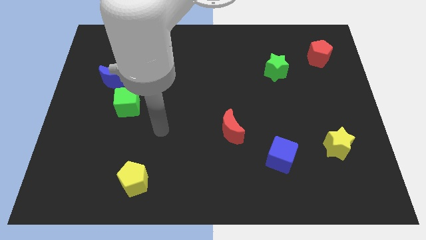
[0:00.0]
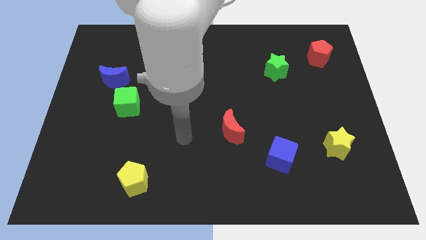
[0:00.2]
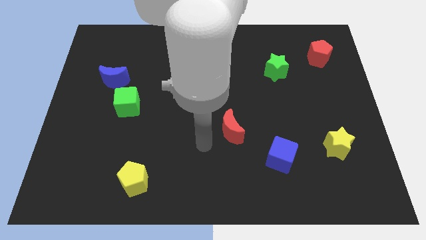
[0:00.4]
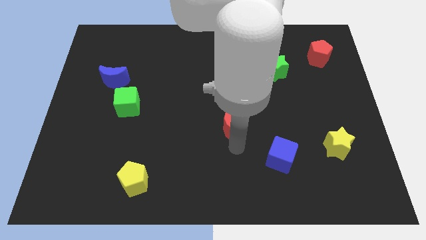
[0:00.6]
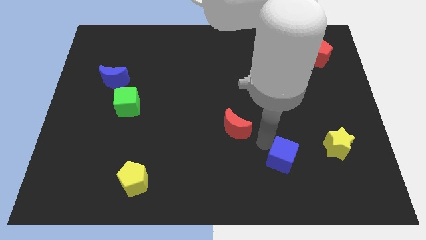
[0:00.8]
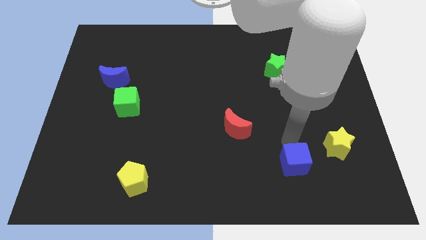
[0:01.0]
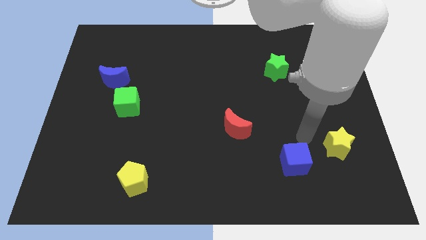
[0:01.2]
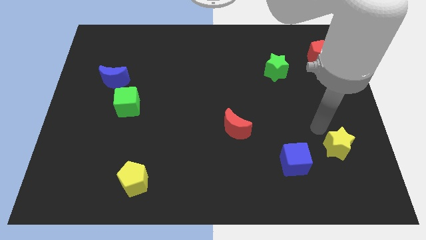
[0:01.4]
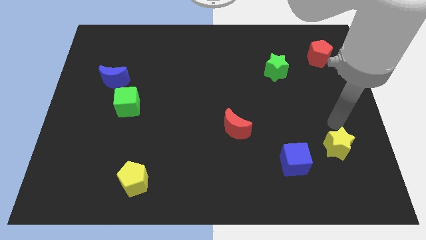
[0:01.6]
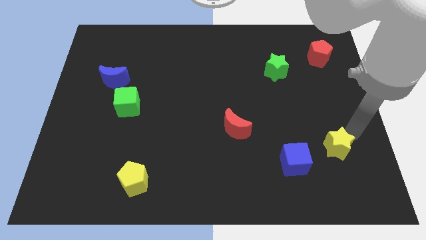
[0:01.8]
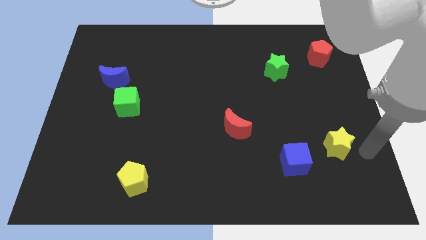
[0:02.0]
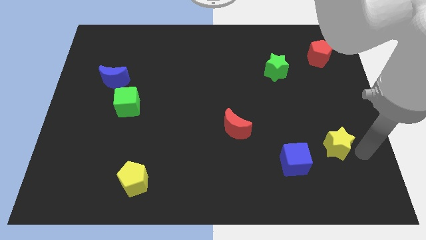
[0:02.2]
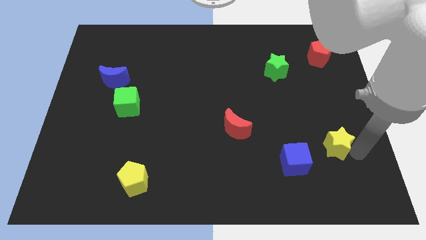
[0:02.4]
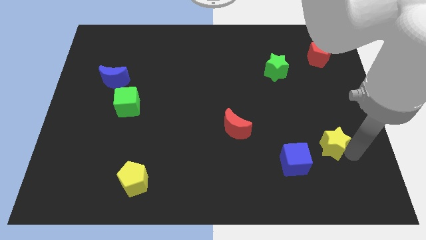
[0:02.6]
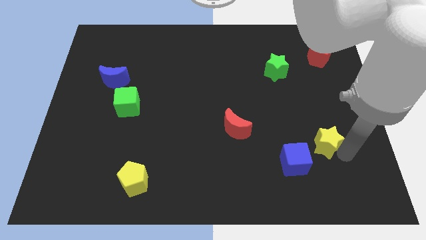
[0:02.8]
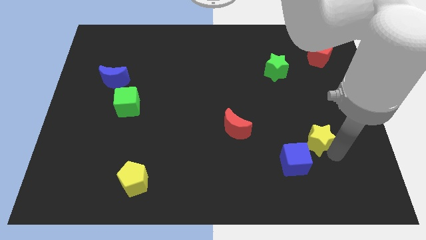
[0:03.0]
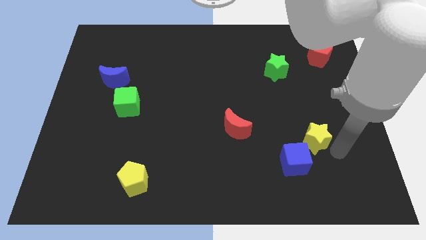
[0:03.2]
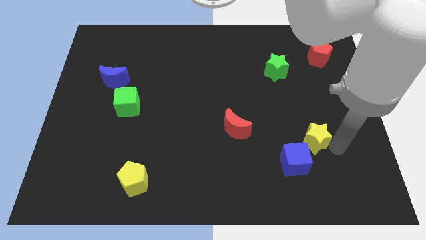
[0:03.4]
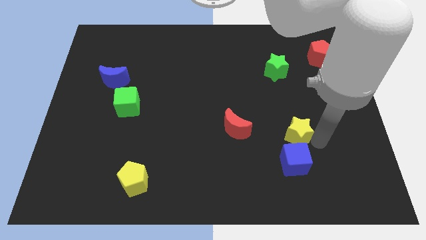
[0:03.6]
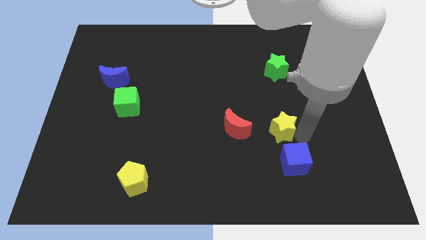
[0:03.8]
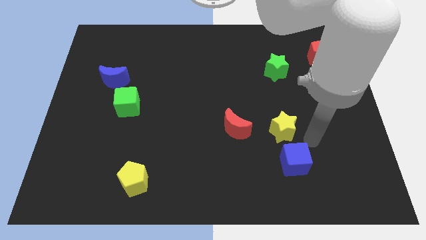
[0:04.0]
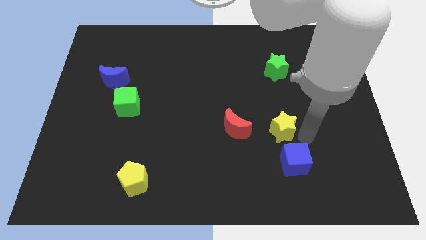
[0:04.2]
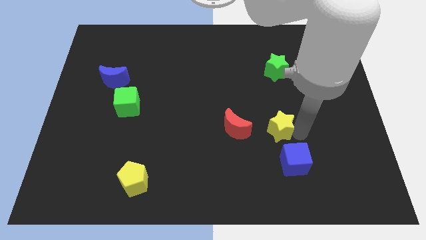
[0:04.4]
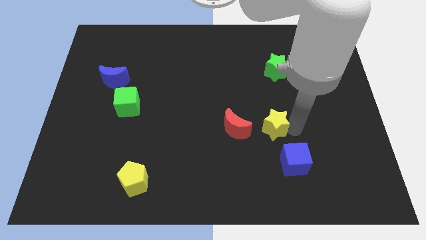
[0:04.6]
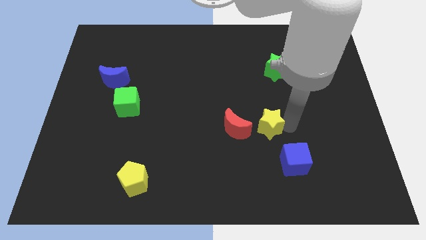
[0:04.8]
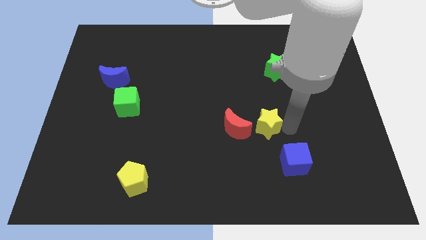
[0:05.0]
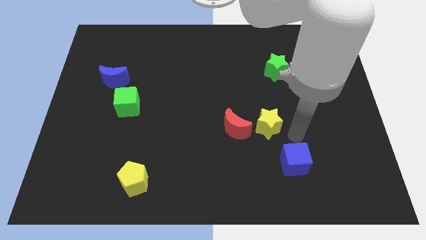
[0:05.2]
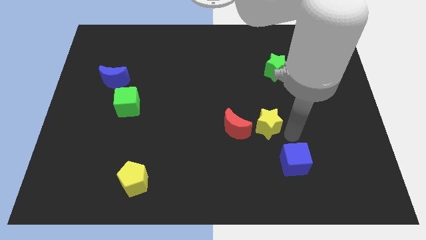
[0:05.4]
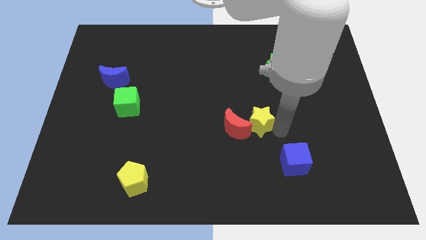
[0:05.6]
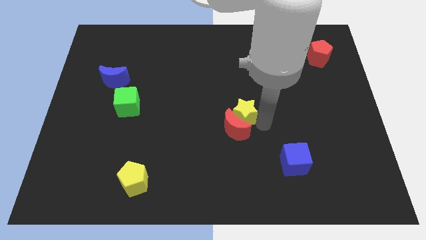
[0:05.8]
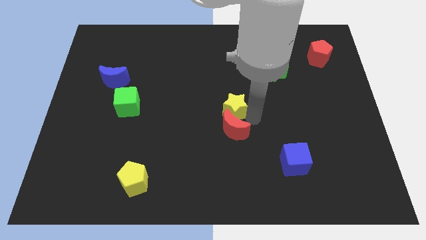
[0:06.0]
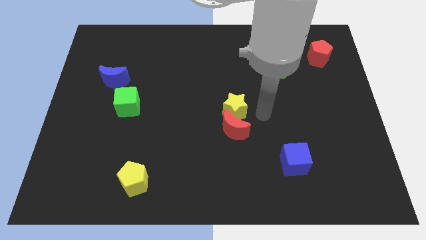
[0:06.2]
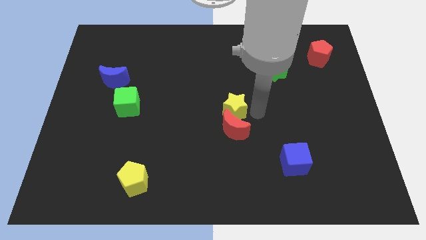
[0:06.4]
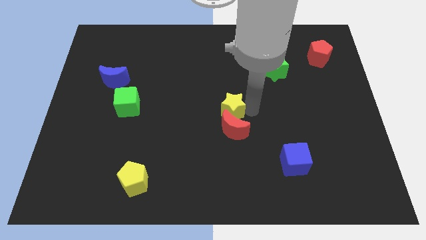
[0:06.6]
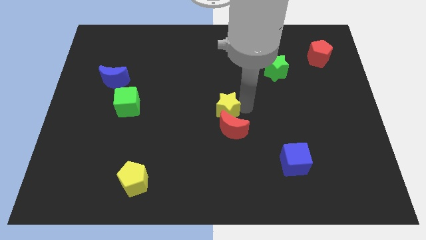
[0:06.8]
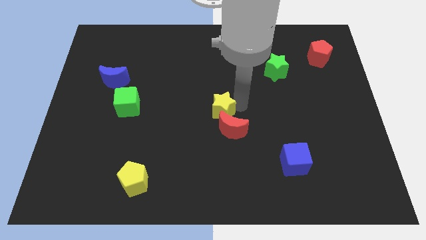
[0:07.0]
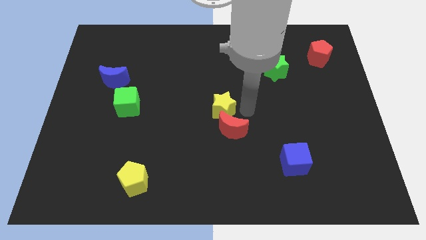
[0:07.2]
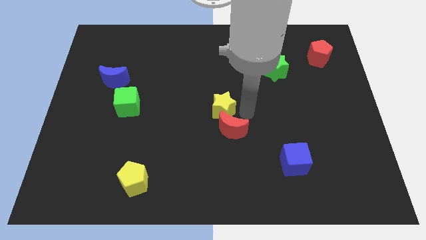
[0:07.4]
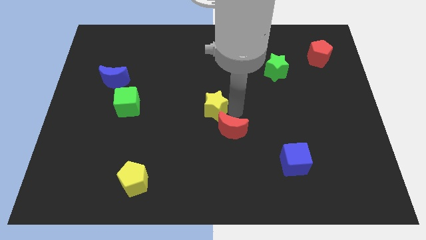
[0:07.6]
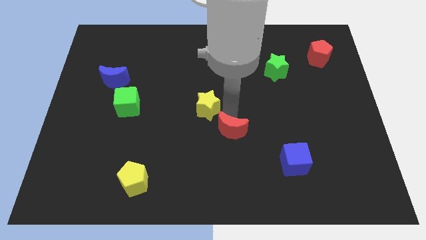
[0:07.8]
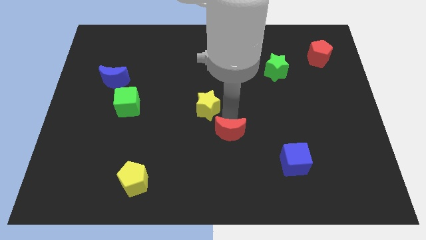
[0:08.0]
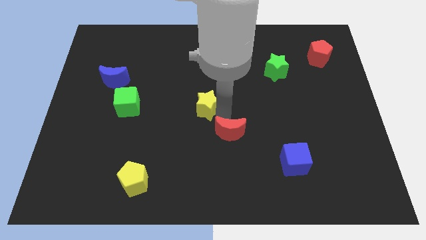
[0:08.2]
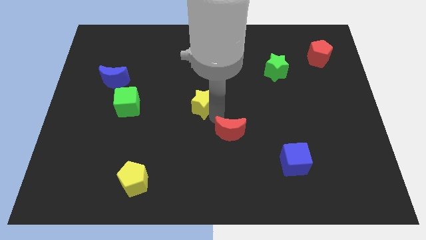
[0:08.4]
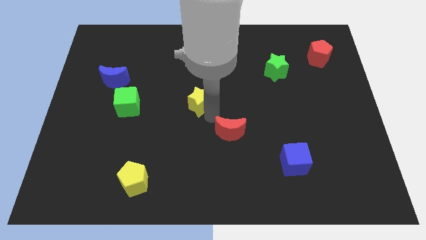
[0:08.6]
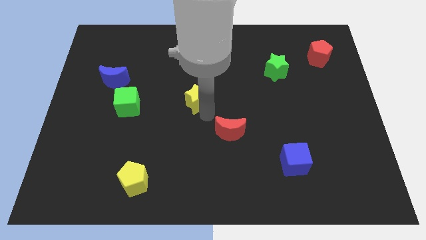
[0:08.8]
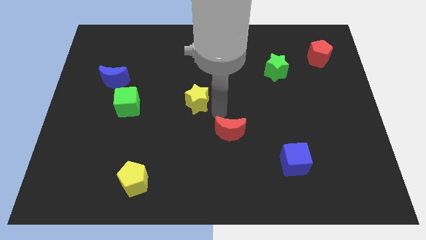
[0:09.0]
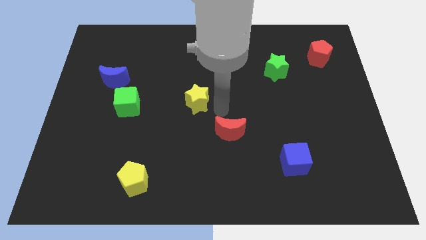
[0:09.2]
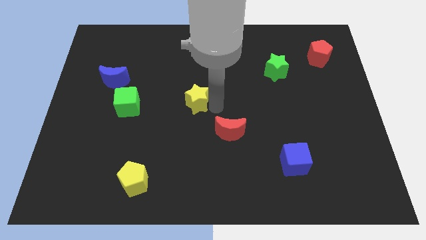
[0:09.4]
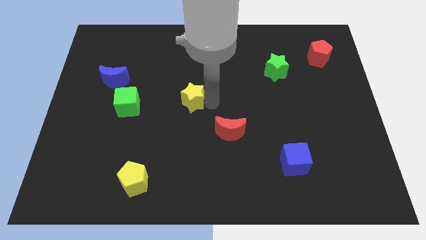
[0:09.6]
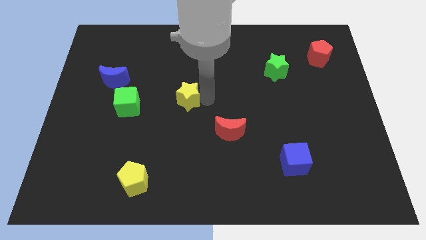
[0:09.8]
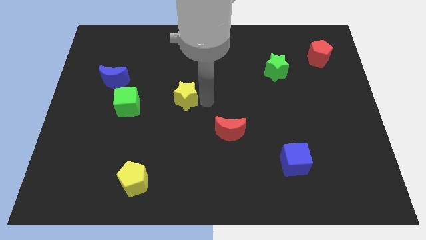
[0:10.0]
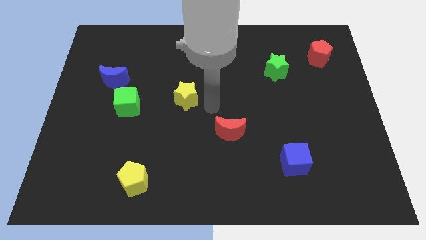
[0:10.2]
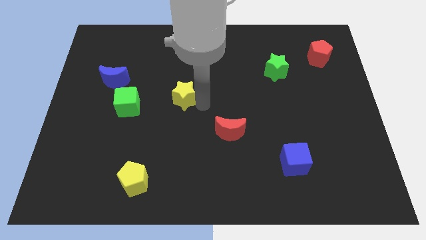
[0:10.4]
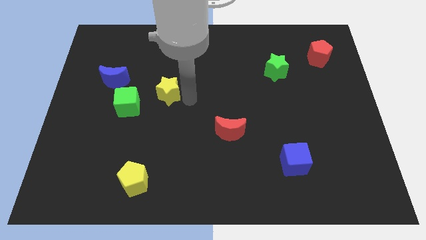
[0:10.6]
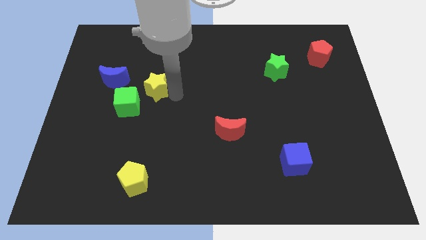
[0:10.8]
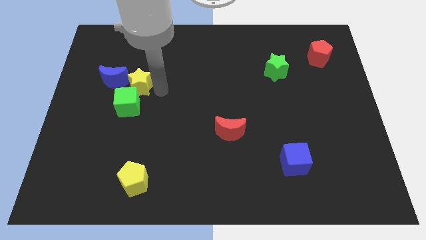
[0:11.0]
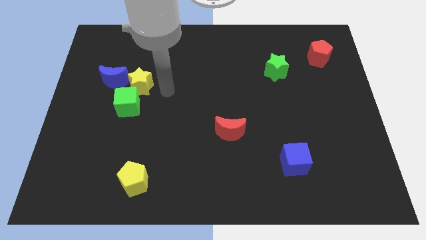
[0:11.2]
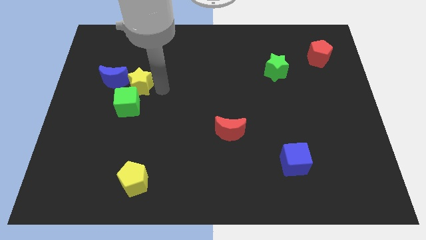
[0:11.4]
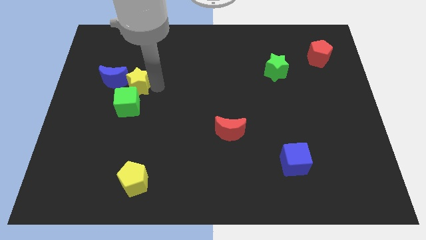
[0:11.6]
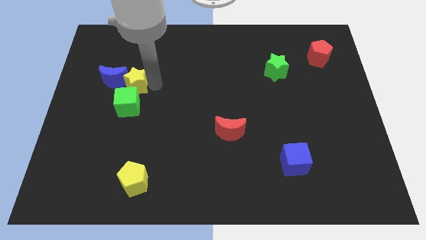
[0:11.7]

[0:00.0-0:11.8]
put the yellow star towards the blue moon

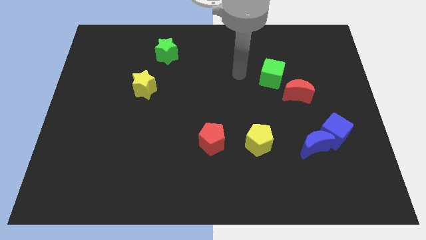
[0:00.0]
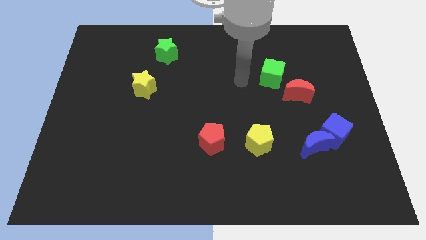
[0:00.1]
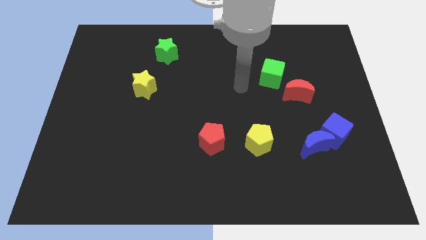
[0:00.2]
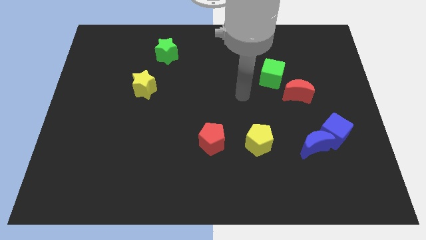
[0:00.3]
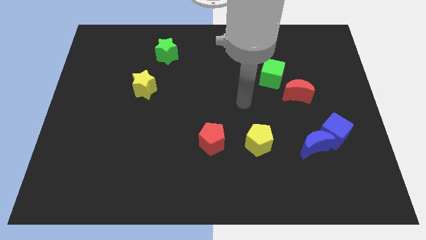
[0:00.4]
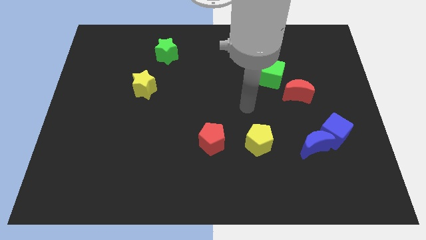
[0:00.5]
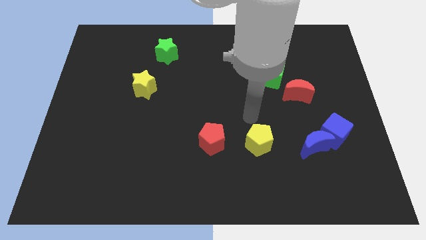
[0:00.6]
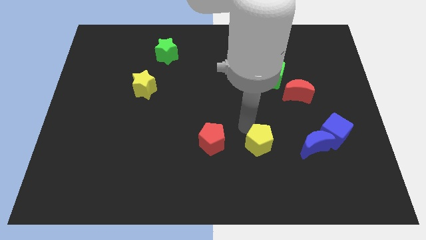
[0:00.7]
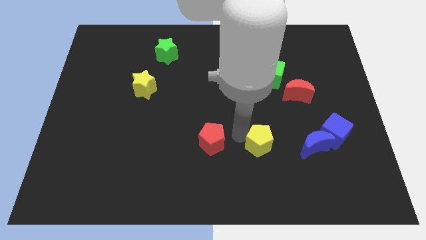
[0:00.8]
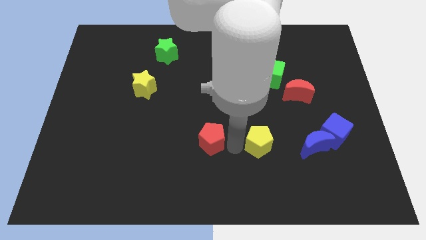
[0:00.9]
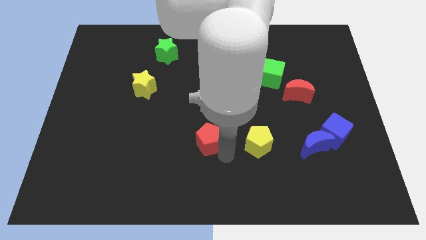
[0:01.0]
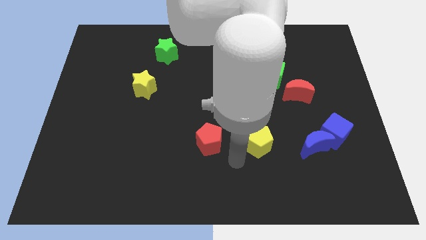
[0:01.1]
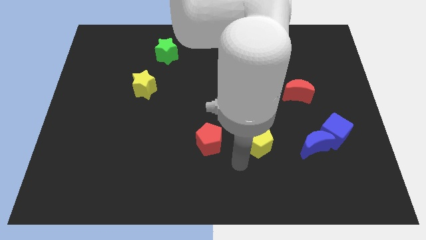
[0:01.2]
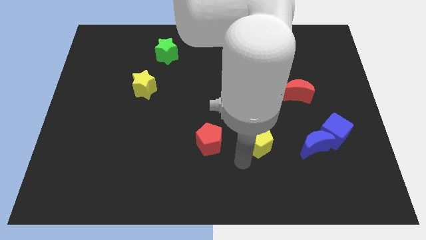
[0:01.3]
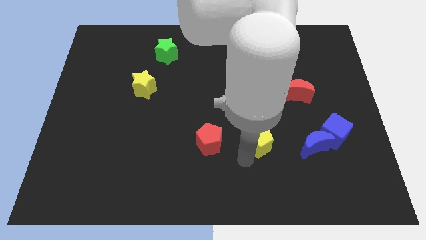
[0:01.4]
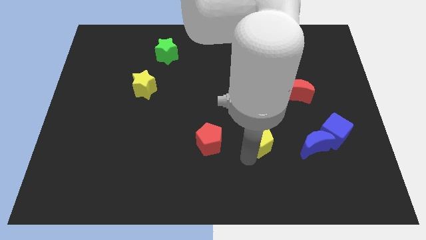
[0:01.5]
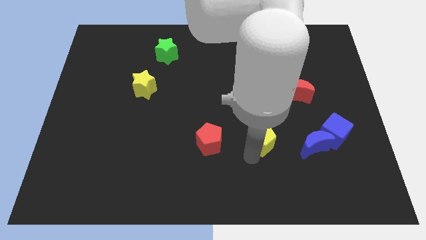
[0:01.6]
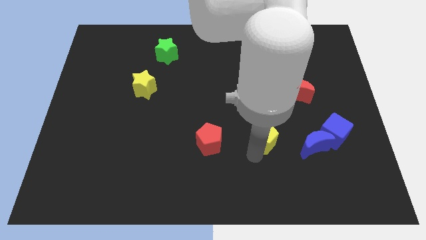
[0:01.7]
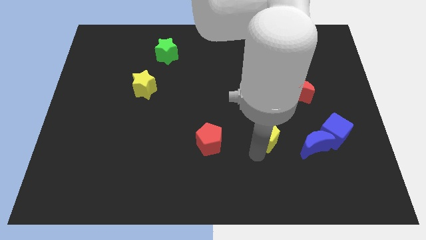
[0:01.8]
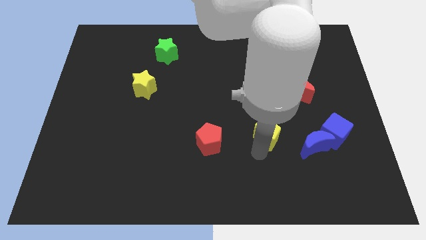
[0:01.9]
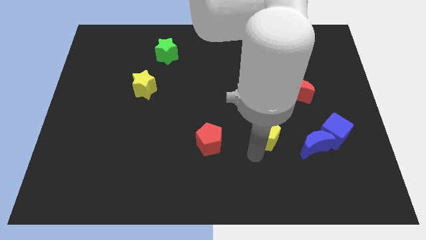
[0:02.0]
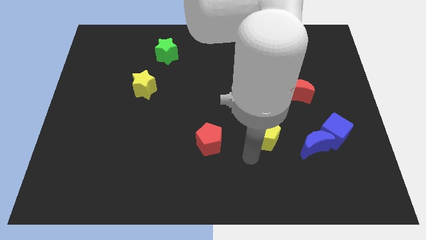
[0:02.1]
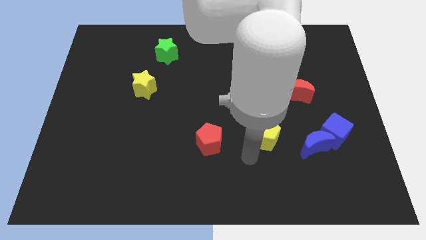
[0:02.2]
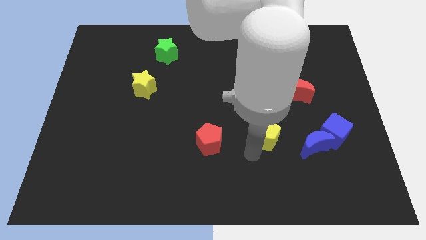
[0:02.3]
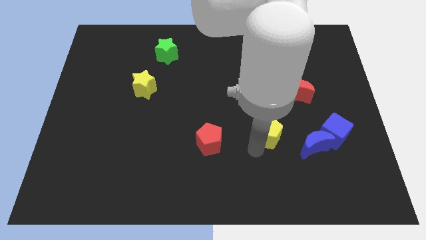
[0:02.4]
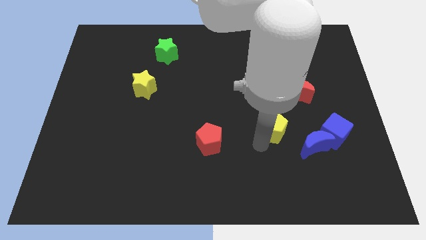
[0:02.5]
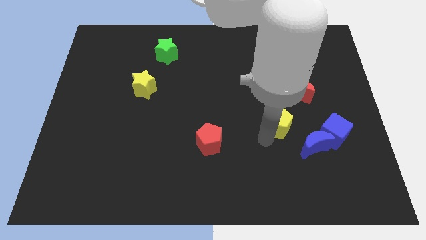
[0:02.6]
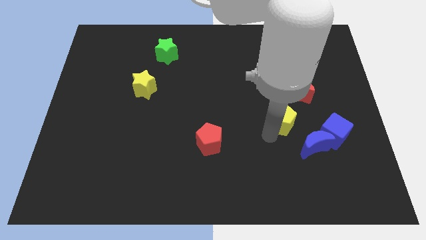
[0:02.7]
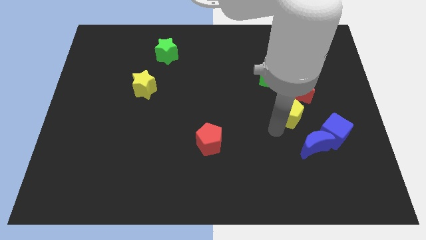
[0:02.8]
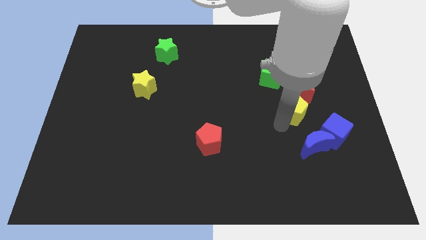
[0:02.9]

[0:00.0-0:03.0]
slide the yellow pentagon next to the red moon
